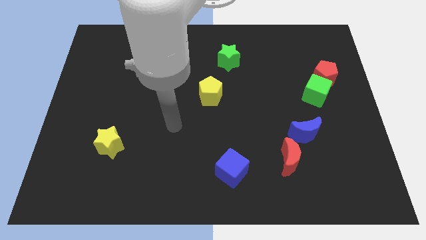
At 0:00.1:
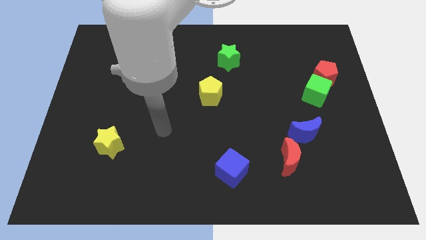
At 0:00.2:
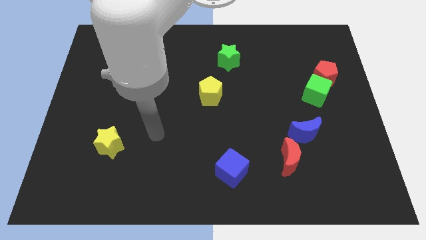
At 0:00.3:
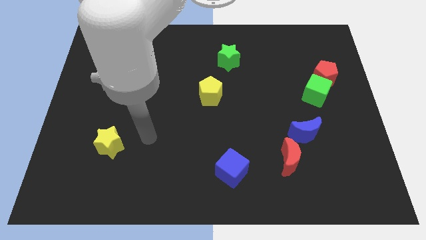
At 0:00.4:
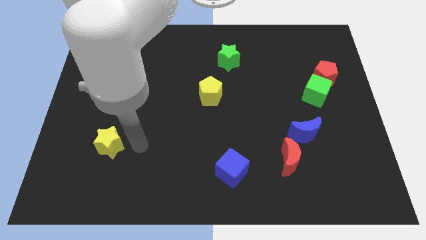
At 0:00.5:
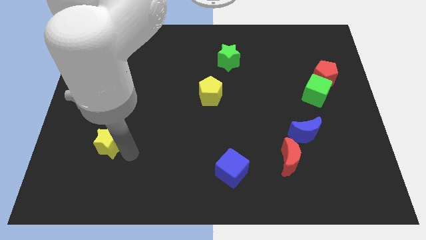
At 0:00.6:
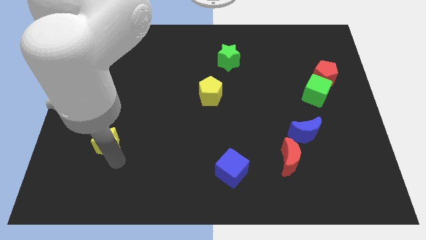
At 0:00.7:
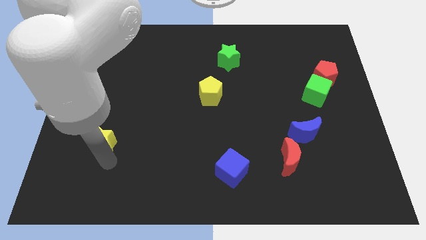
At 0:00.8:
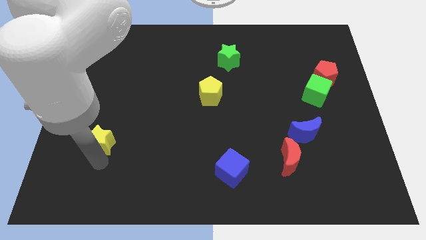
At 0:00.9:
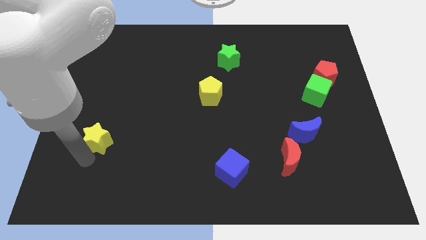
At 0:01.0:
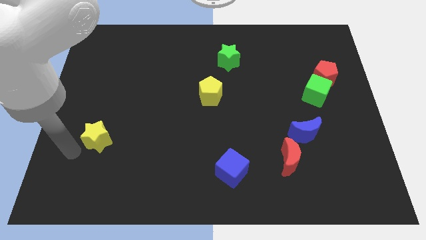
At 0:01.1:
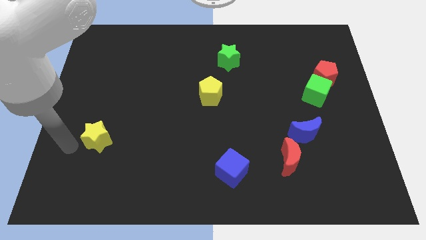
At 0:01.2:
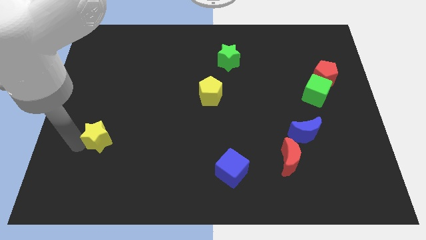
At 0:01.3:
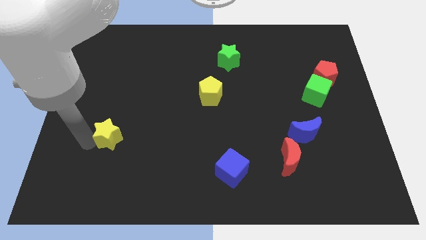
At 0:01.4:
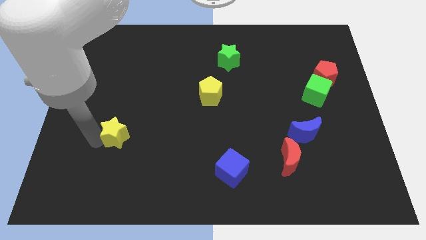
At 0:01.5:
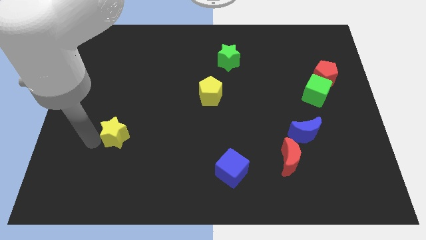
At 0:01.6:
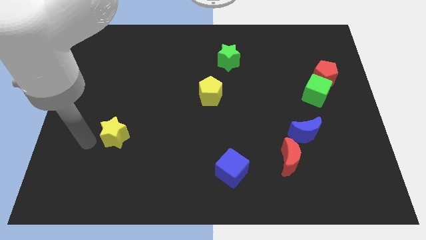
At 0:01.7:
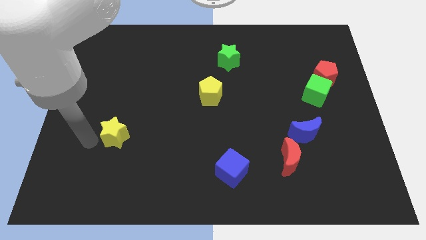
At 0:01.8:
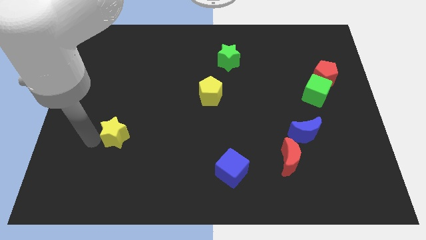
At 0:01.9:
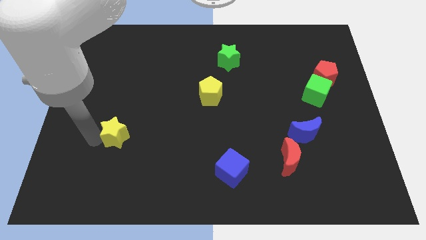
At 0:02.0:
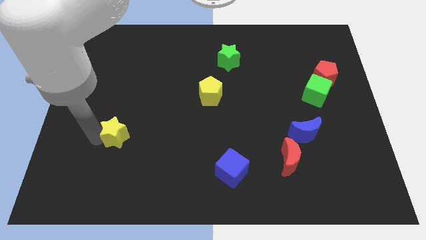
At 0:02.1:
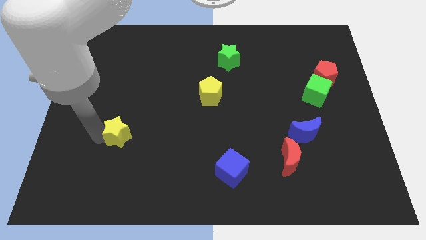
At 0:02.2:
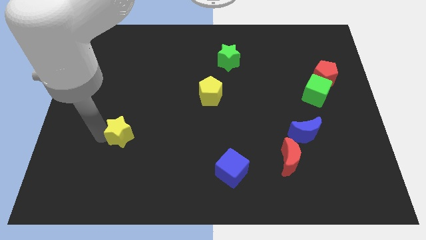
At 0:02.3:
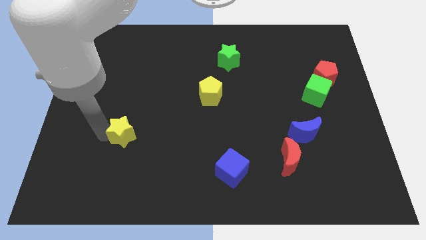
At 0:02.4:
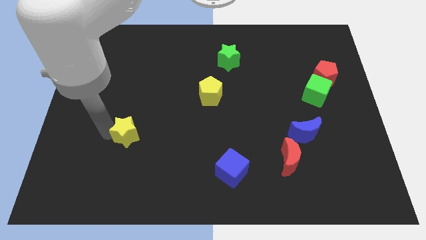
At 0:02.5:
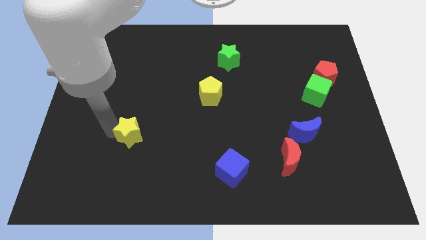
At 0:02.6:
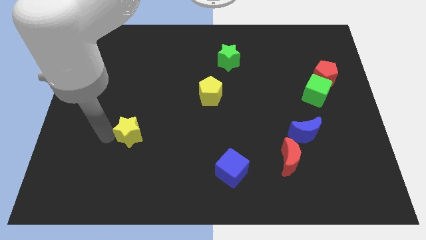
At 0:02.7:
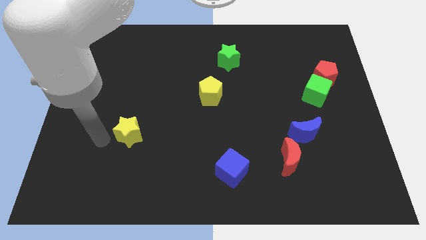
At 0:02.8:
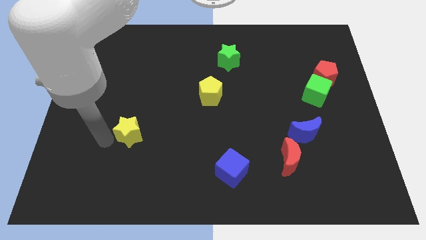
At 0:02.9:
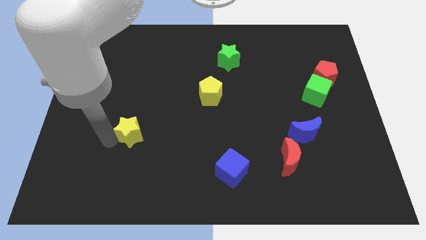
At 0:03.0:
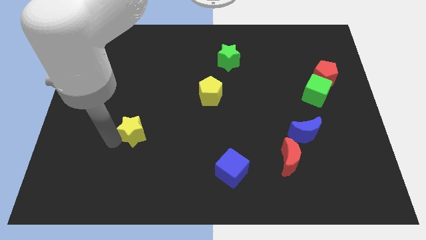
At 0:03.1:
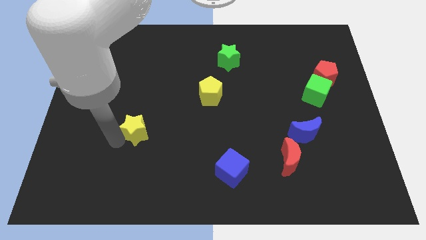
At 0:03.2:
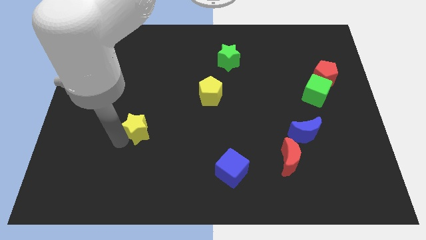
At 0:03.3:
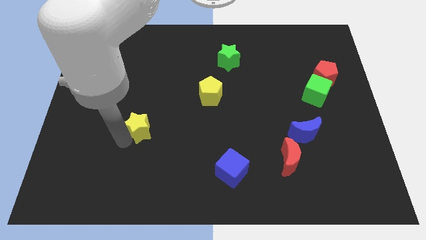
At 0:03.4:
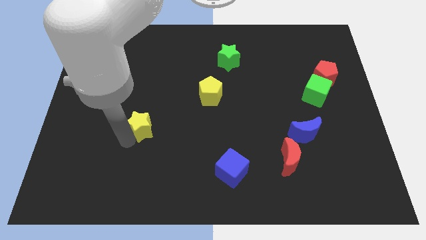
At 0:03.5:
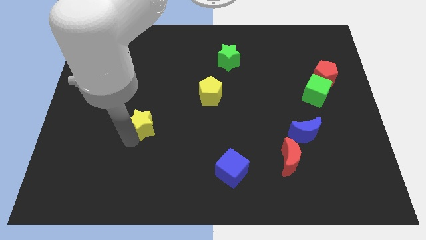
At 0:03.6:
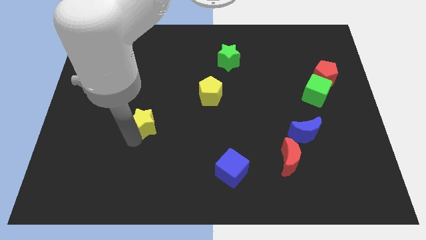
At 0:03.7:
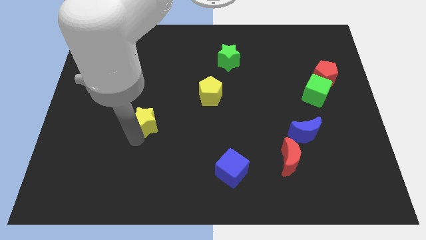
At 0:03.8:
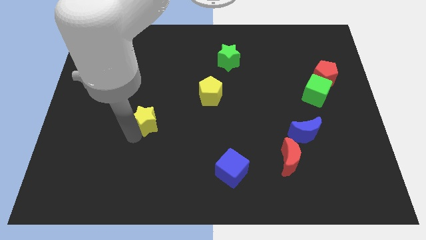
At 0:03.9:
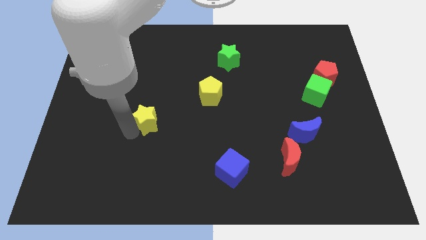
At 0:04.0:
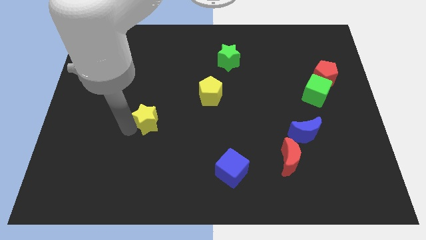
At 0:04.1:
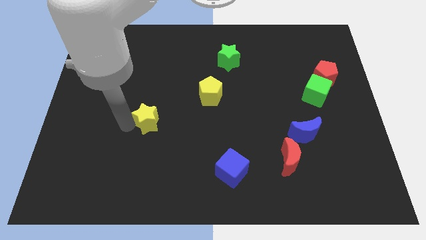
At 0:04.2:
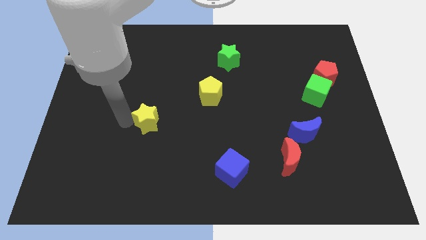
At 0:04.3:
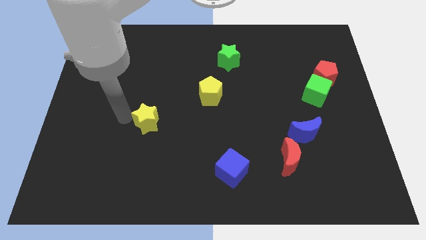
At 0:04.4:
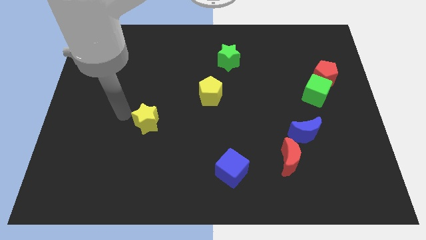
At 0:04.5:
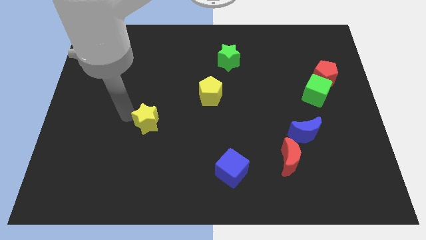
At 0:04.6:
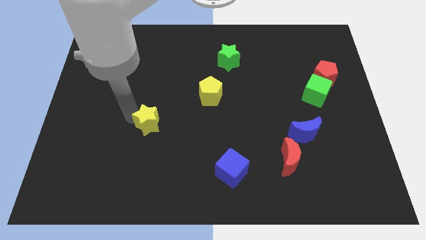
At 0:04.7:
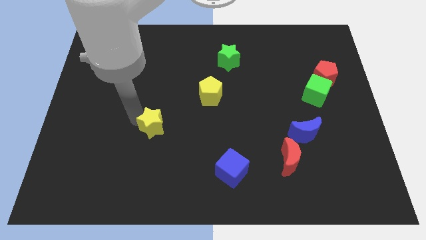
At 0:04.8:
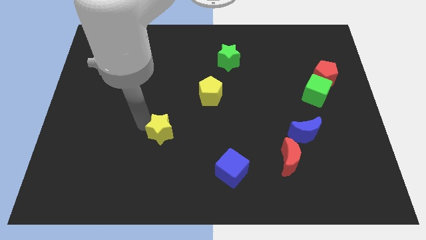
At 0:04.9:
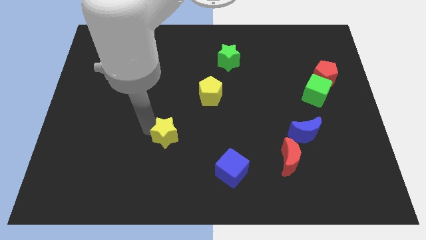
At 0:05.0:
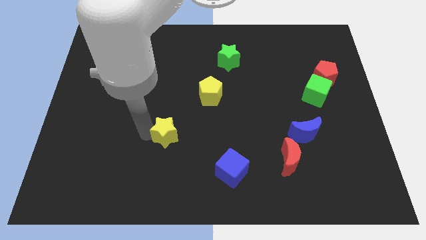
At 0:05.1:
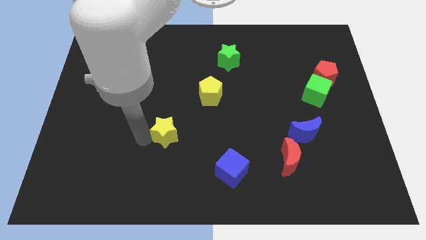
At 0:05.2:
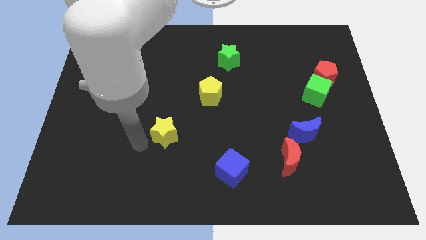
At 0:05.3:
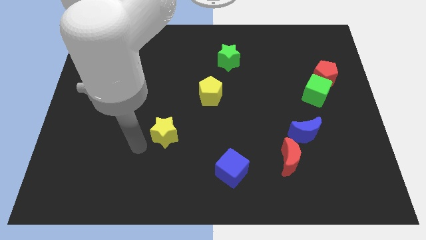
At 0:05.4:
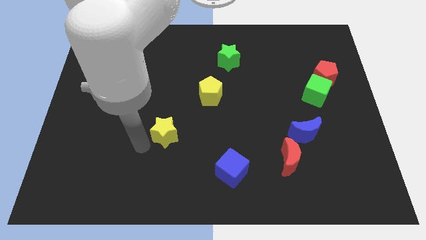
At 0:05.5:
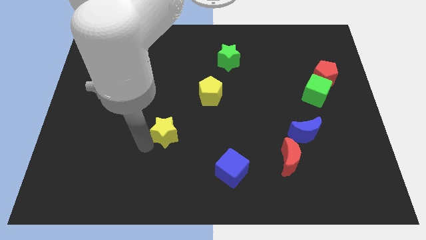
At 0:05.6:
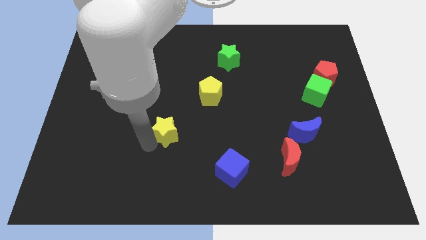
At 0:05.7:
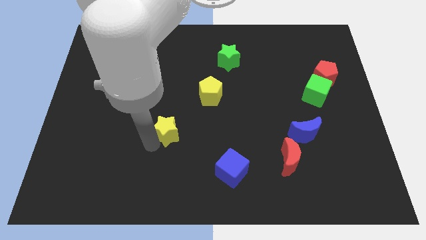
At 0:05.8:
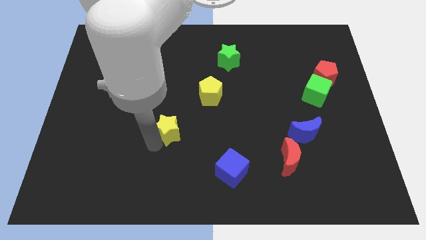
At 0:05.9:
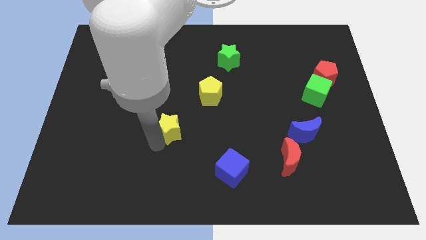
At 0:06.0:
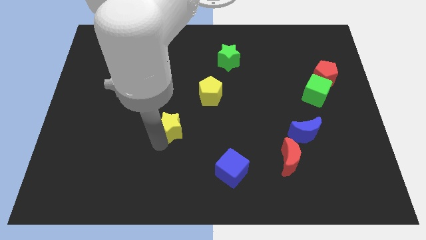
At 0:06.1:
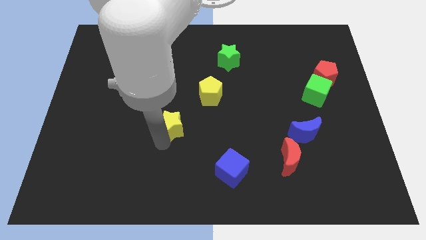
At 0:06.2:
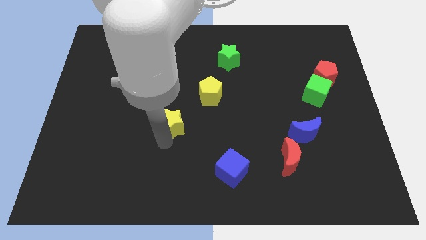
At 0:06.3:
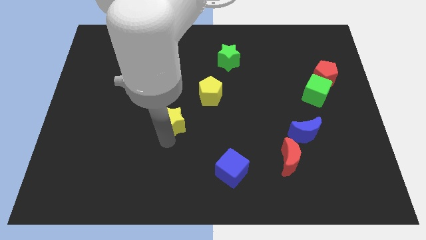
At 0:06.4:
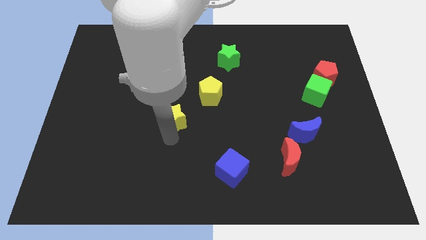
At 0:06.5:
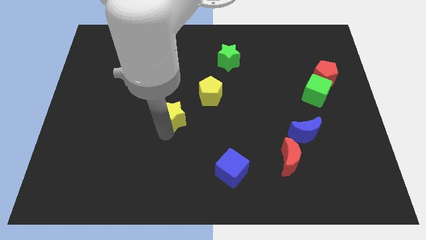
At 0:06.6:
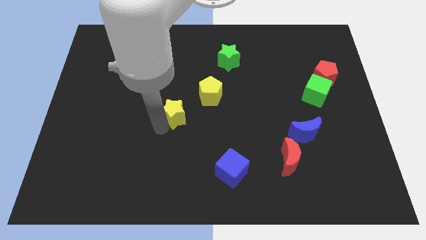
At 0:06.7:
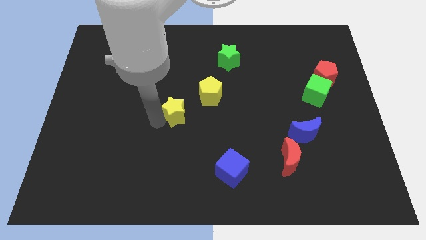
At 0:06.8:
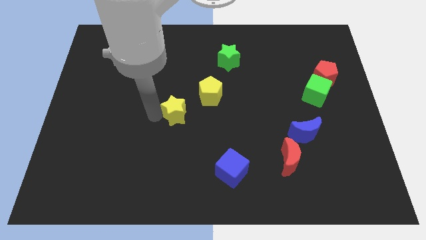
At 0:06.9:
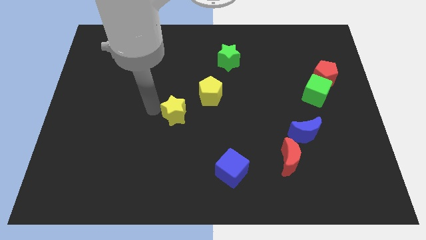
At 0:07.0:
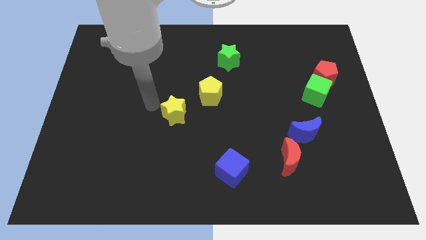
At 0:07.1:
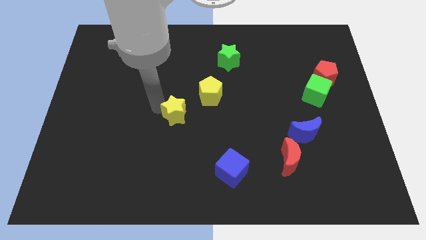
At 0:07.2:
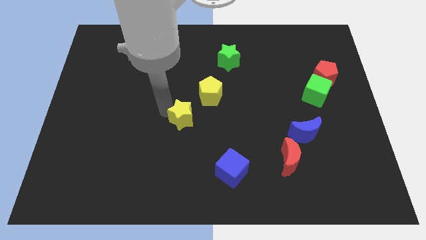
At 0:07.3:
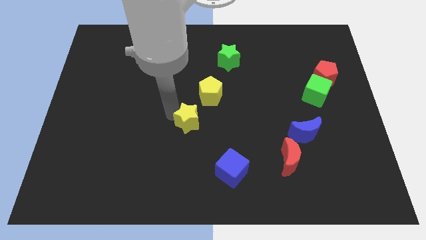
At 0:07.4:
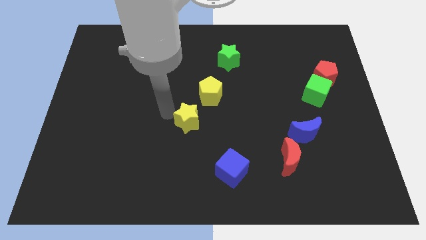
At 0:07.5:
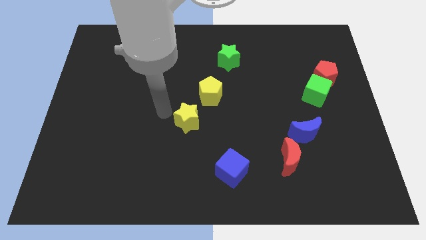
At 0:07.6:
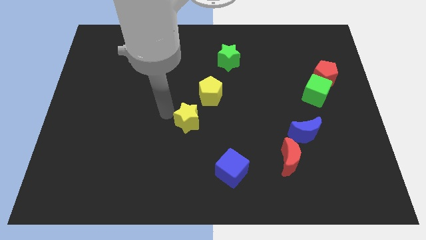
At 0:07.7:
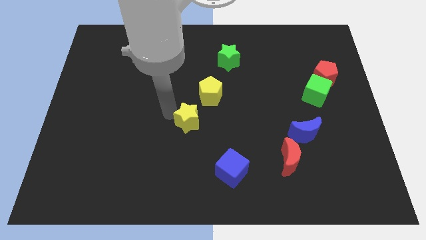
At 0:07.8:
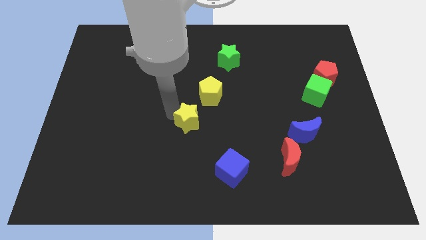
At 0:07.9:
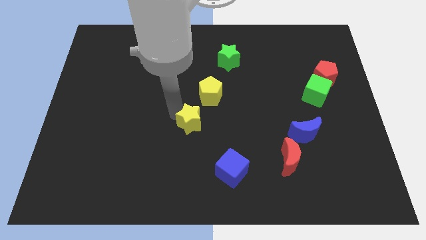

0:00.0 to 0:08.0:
push the yellow star below the yellow pentagon
